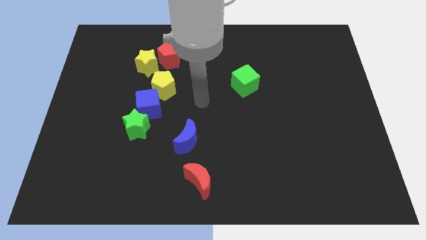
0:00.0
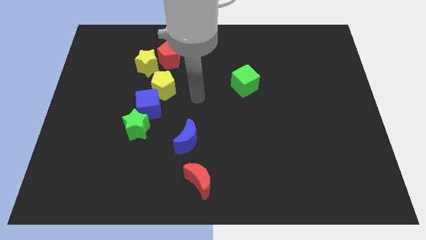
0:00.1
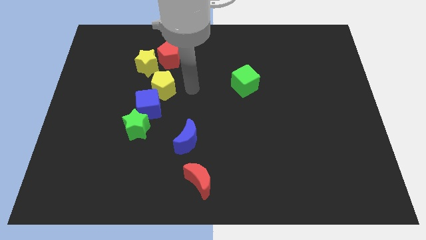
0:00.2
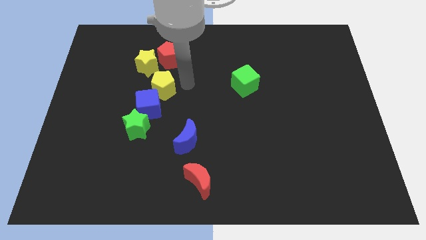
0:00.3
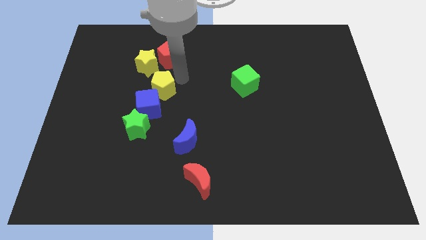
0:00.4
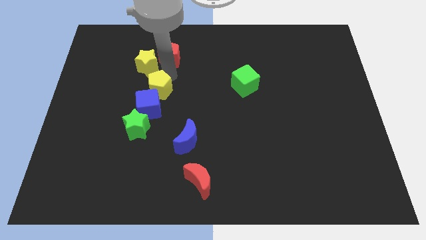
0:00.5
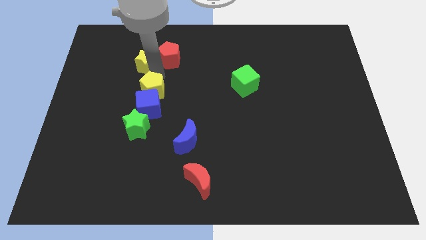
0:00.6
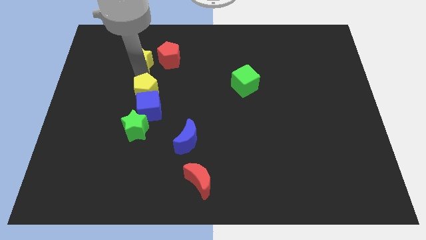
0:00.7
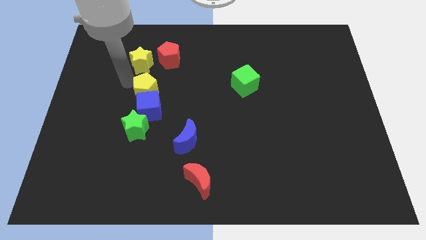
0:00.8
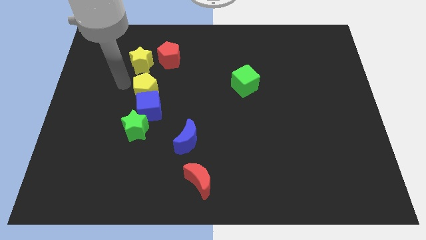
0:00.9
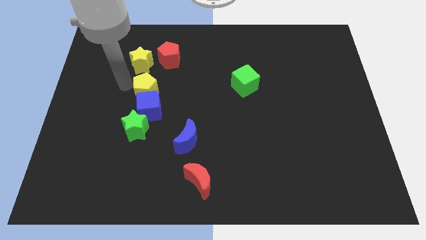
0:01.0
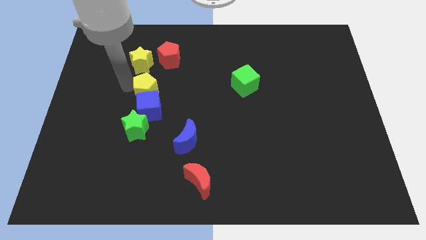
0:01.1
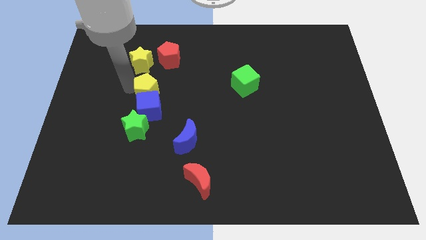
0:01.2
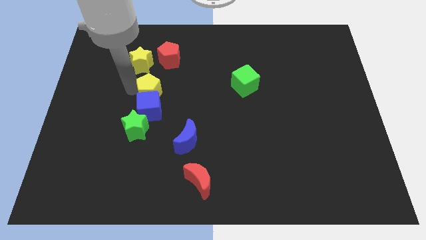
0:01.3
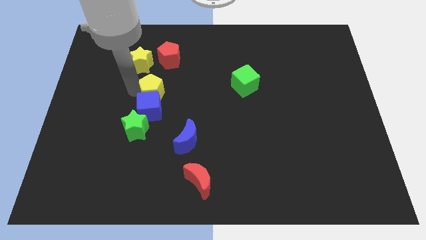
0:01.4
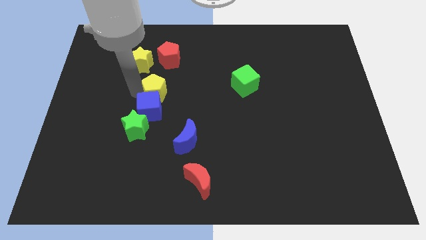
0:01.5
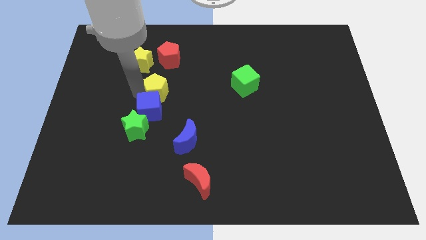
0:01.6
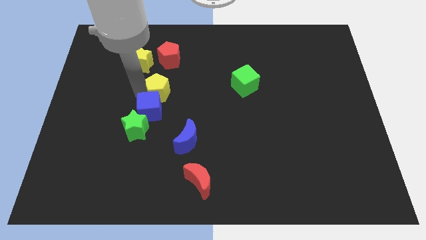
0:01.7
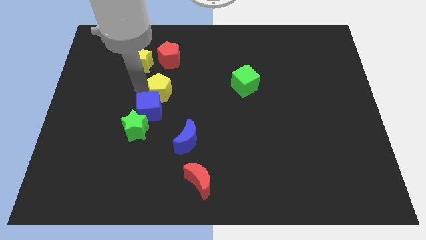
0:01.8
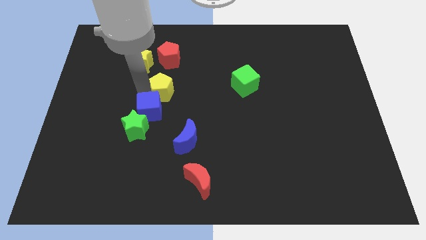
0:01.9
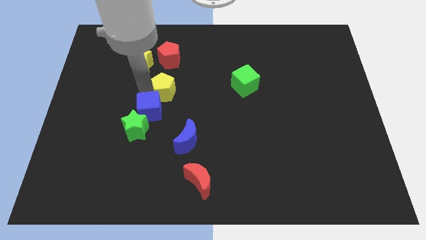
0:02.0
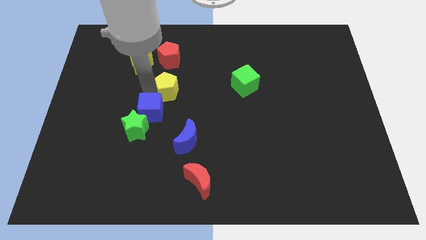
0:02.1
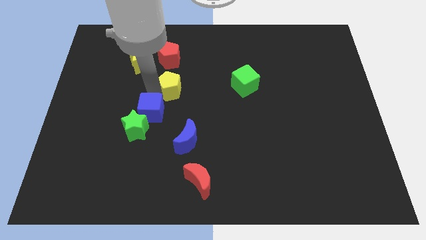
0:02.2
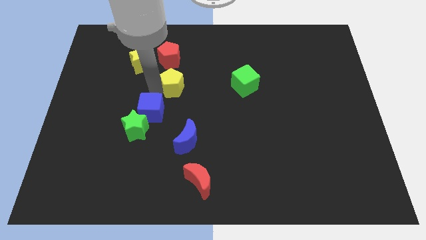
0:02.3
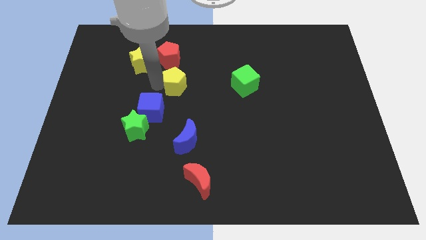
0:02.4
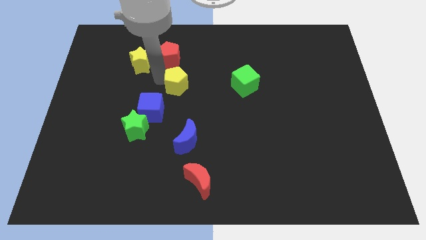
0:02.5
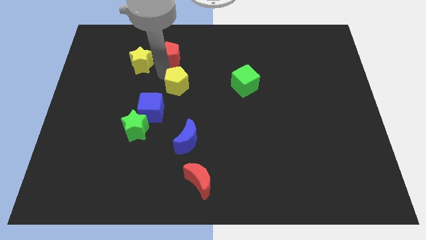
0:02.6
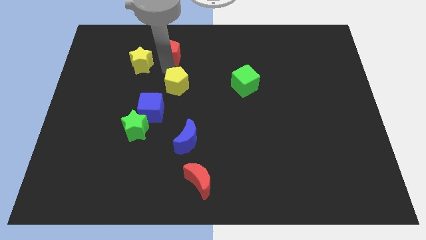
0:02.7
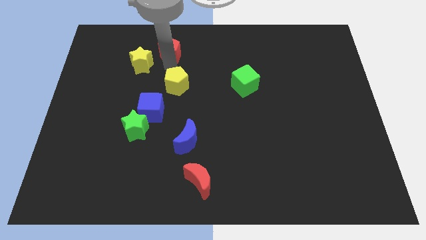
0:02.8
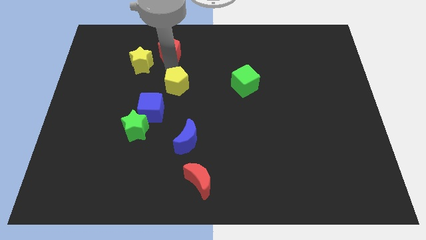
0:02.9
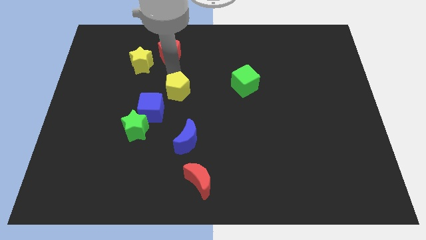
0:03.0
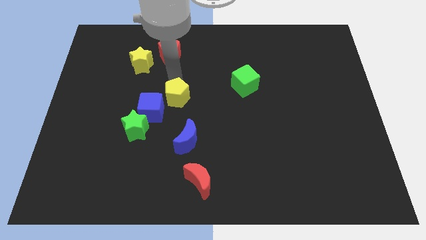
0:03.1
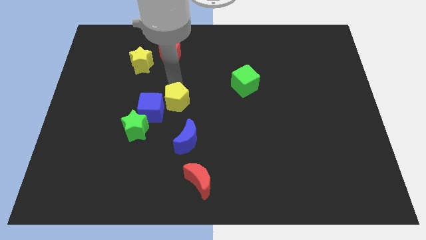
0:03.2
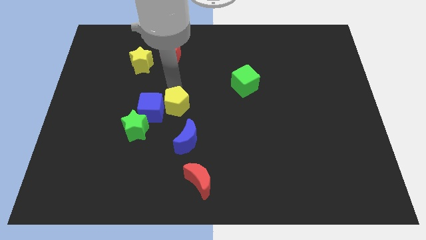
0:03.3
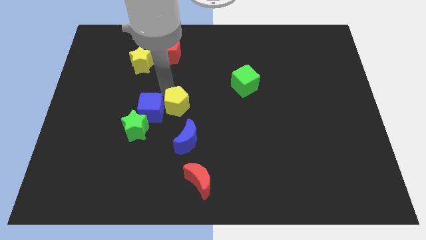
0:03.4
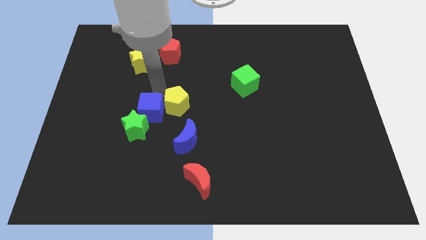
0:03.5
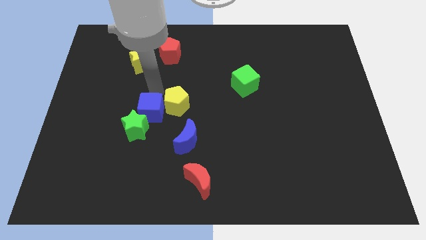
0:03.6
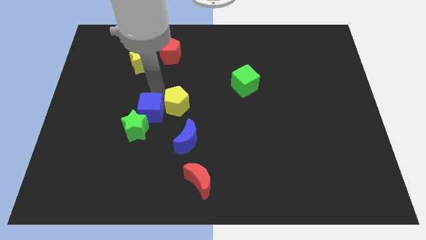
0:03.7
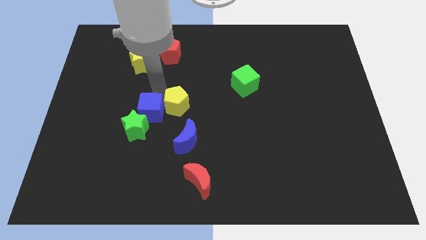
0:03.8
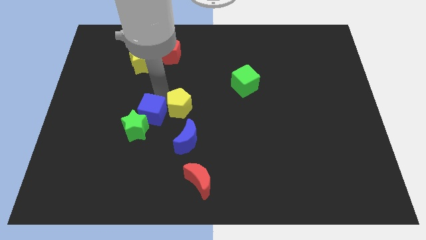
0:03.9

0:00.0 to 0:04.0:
slightly push the yellow pentagon down and right

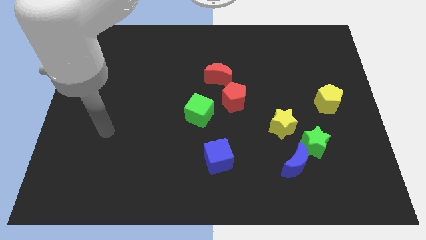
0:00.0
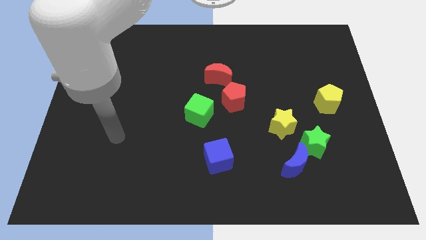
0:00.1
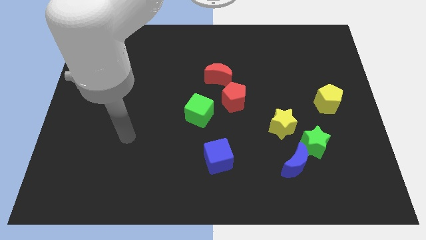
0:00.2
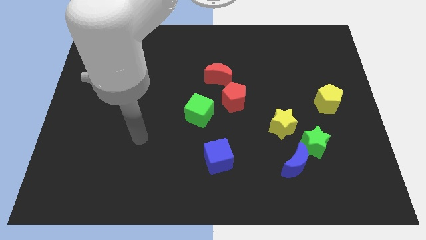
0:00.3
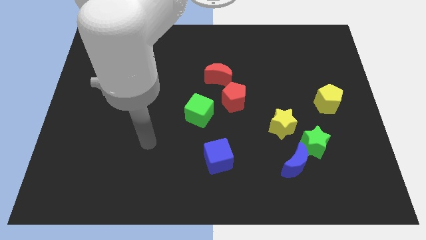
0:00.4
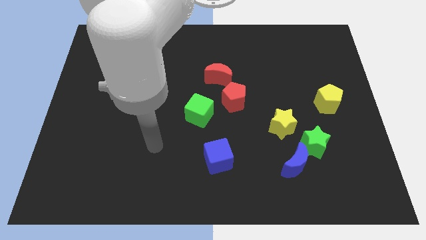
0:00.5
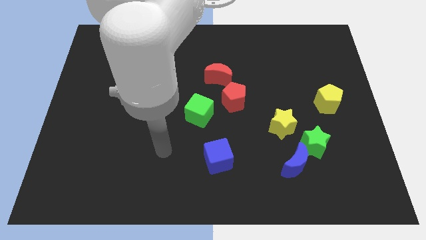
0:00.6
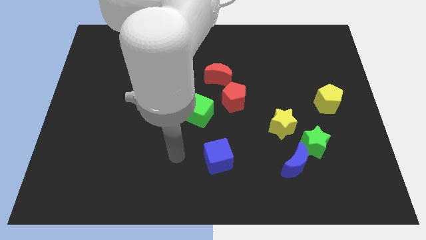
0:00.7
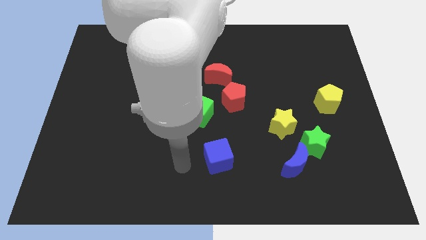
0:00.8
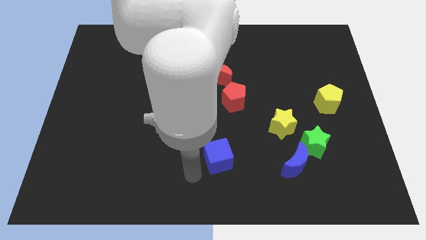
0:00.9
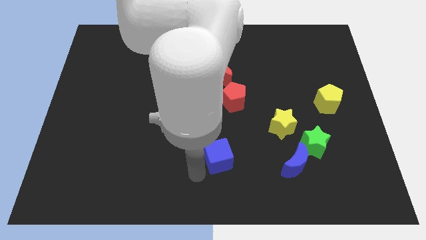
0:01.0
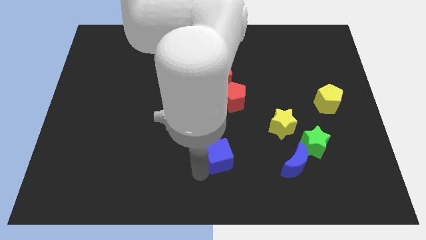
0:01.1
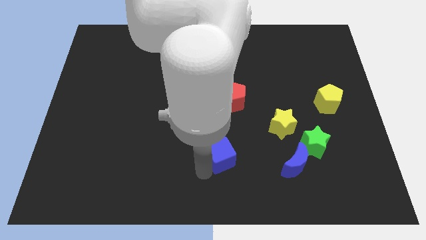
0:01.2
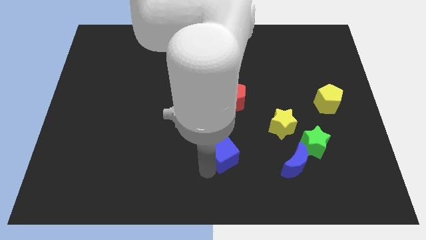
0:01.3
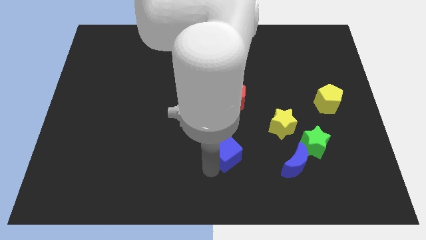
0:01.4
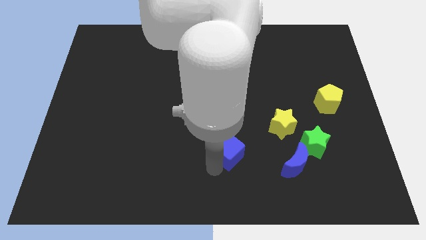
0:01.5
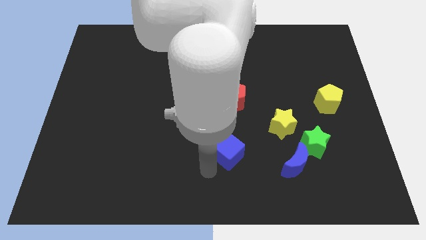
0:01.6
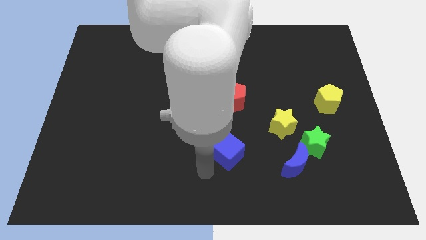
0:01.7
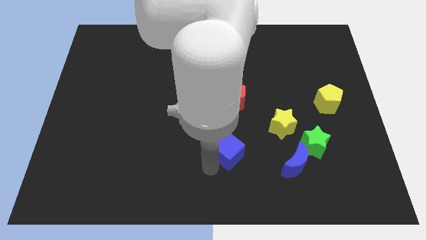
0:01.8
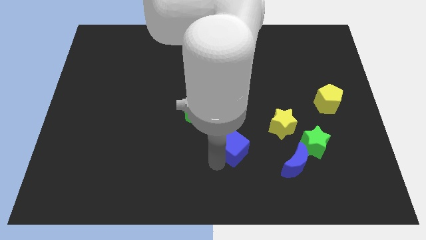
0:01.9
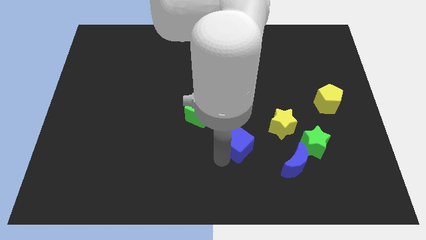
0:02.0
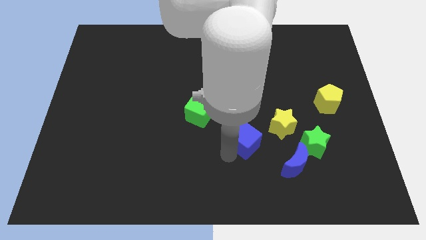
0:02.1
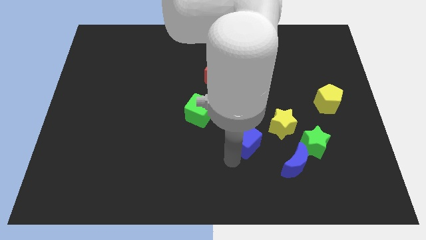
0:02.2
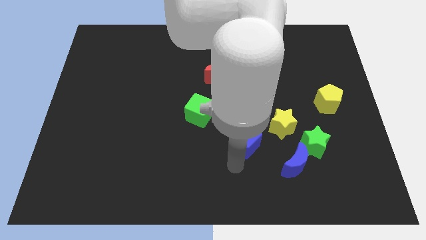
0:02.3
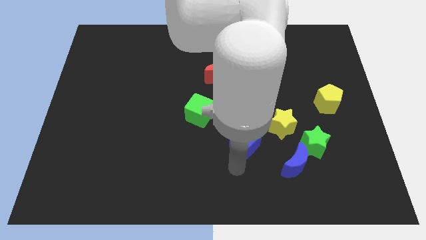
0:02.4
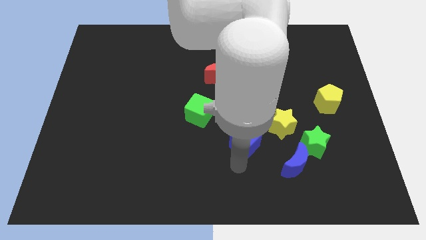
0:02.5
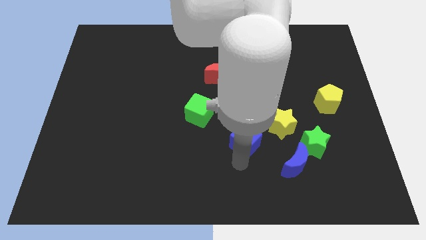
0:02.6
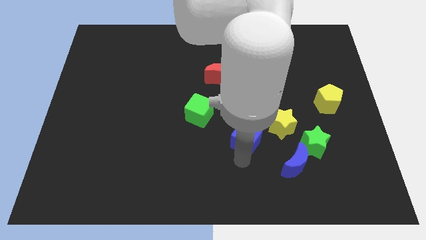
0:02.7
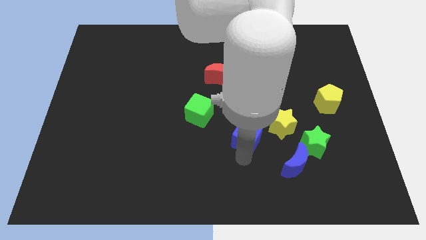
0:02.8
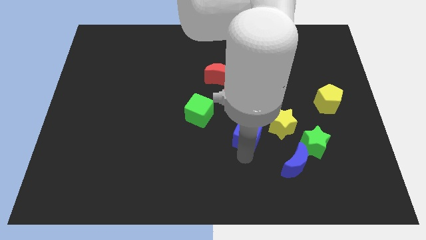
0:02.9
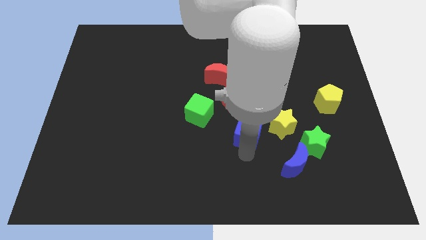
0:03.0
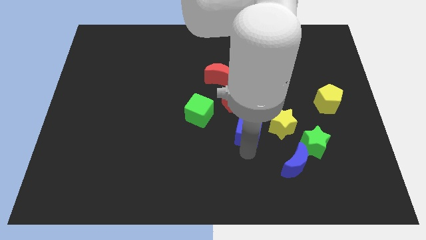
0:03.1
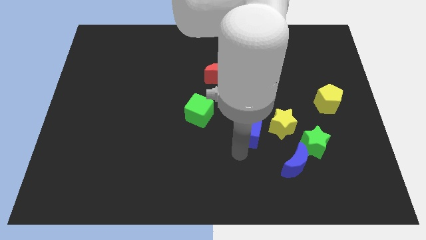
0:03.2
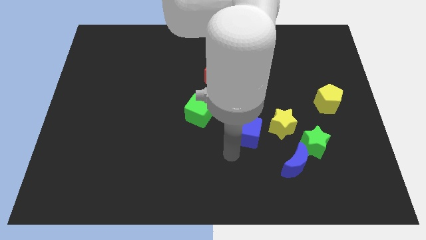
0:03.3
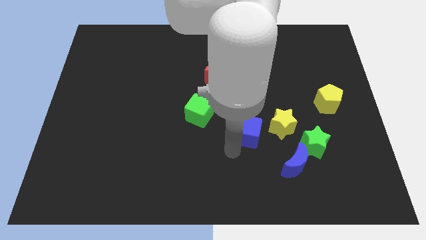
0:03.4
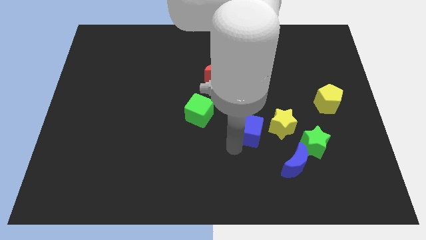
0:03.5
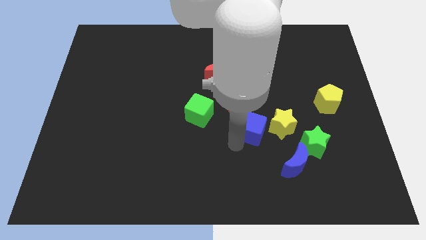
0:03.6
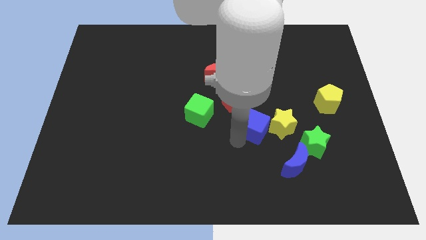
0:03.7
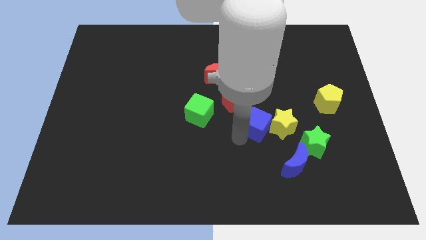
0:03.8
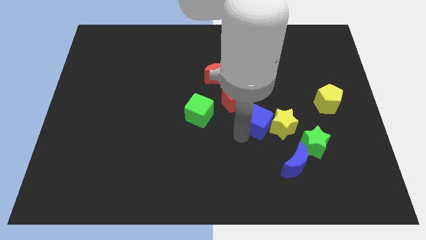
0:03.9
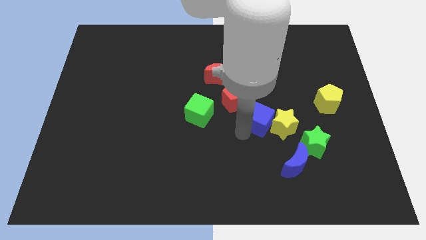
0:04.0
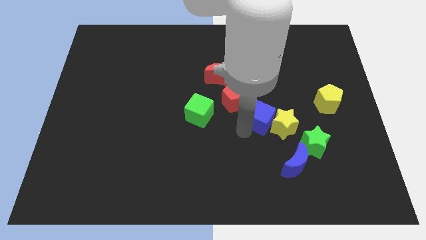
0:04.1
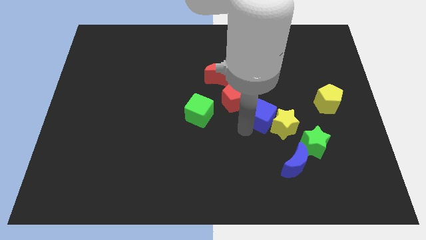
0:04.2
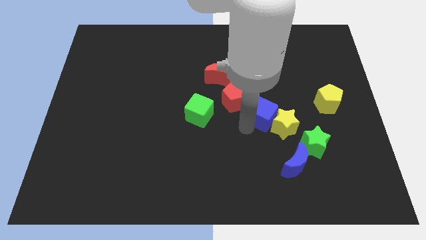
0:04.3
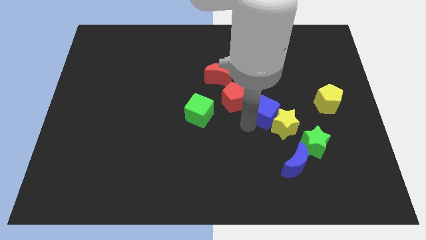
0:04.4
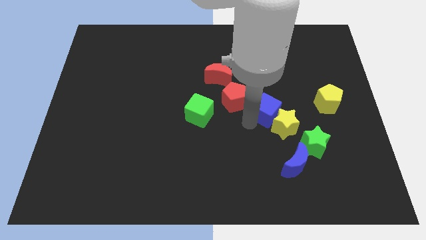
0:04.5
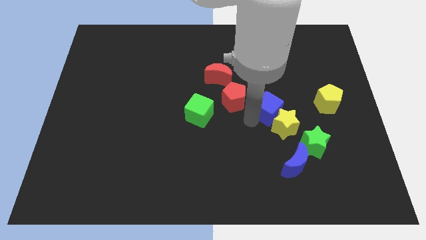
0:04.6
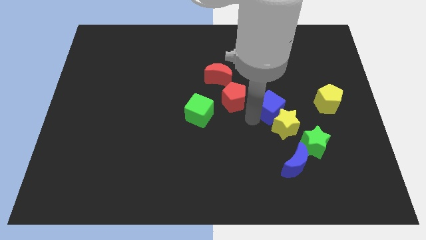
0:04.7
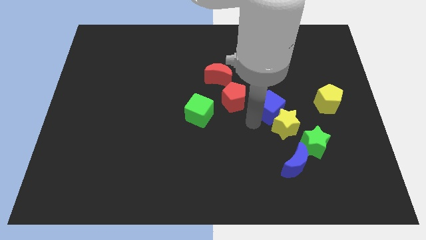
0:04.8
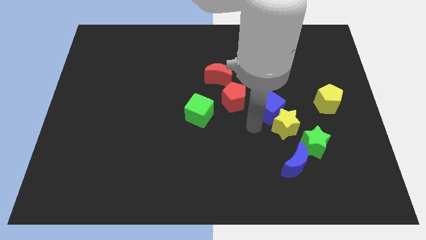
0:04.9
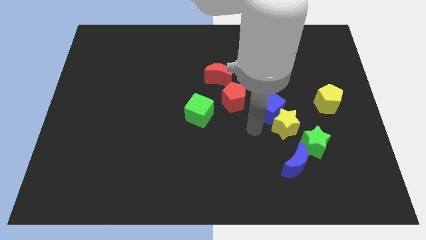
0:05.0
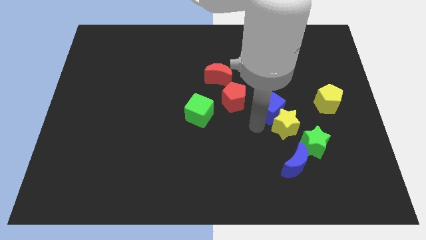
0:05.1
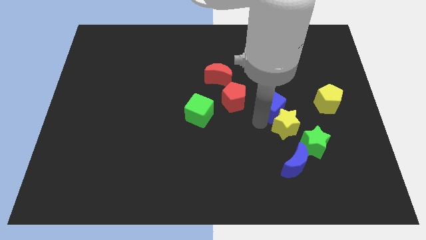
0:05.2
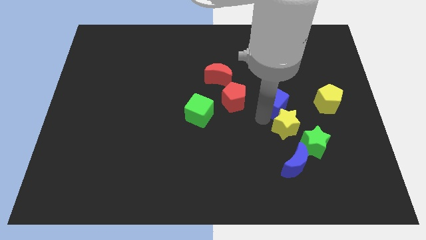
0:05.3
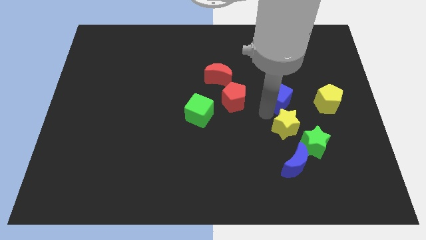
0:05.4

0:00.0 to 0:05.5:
move the blue cube up and to the right
